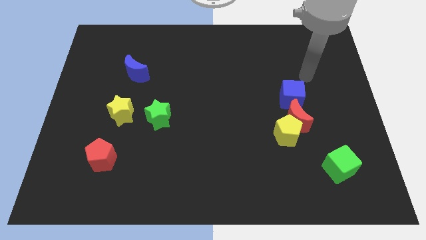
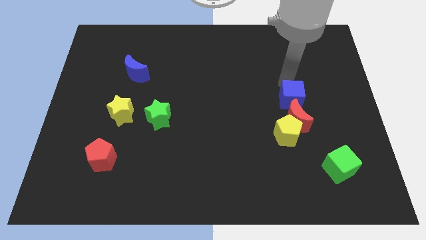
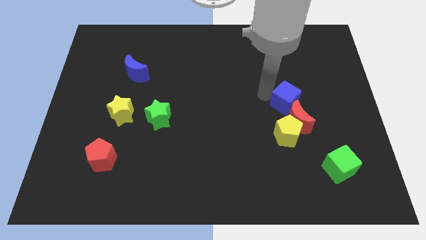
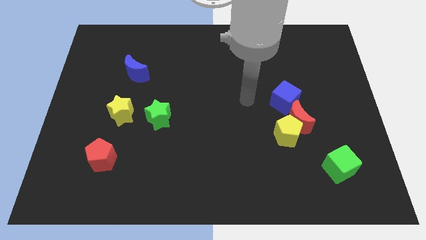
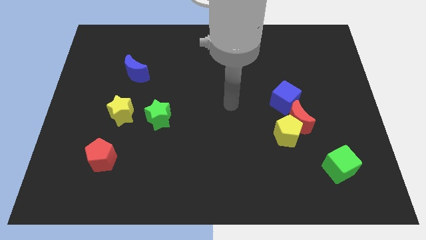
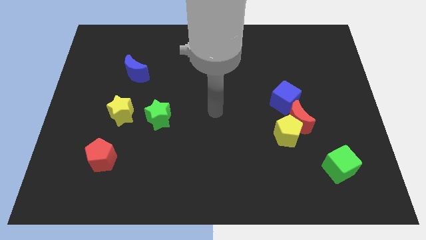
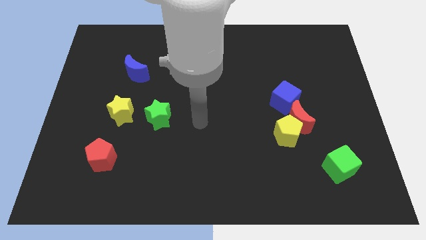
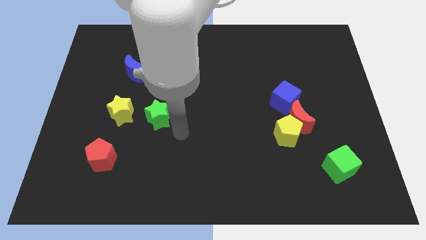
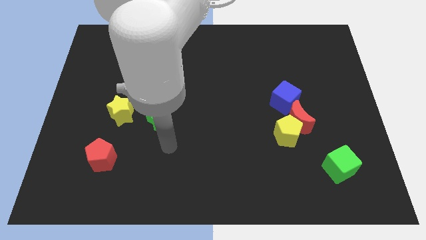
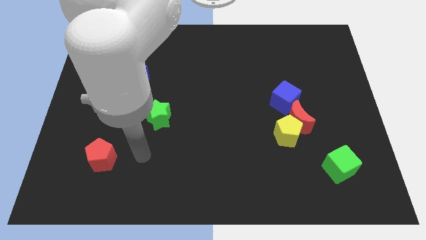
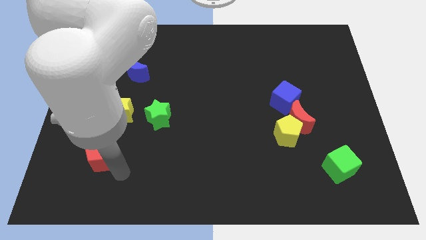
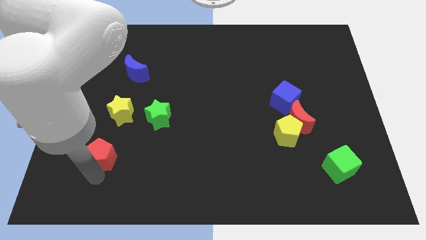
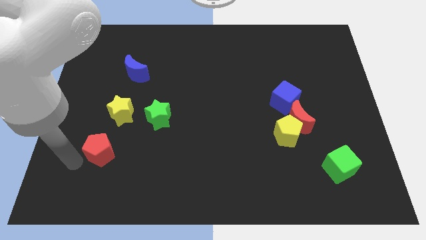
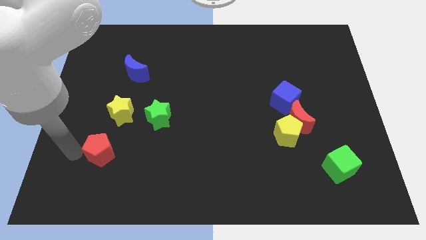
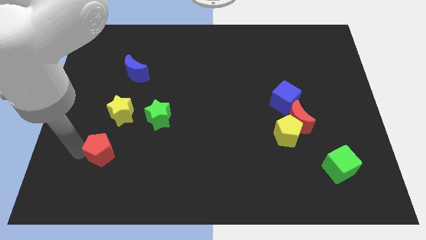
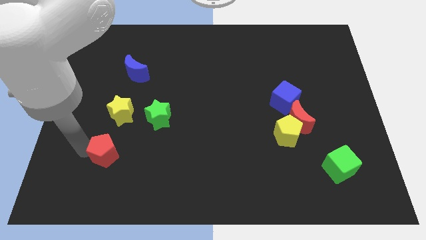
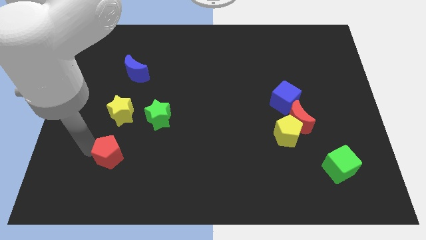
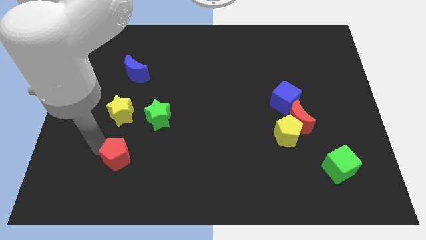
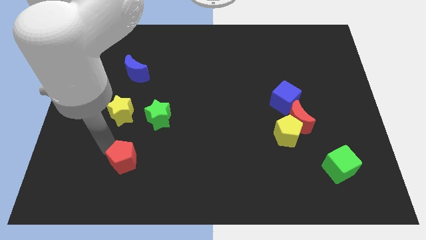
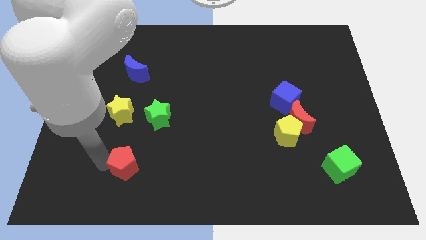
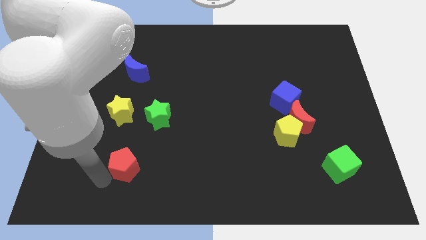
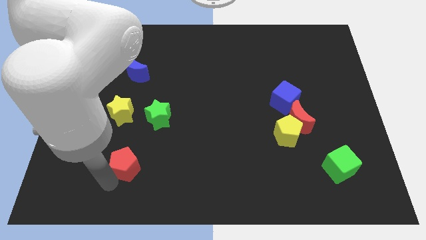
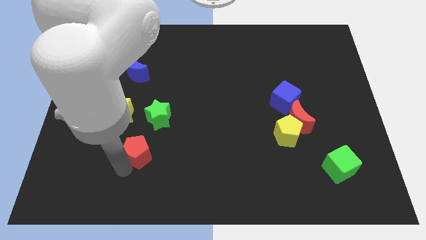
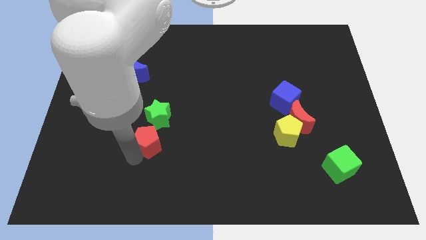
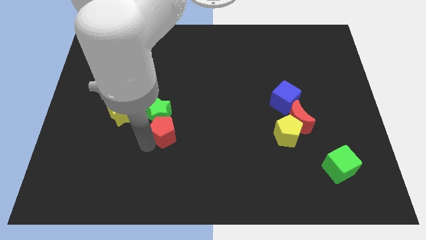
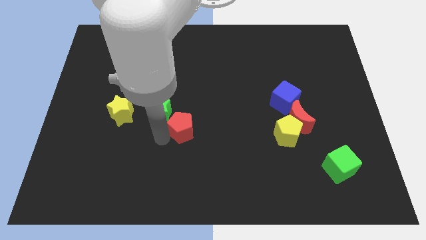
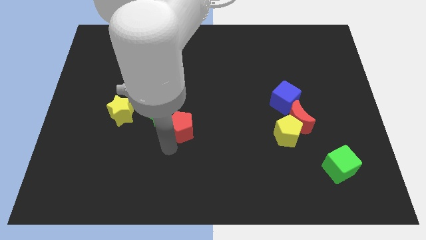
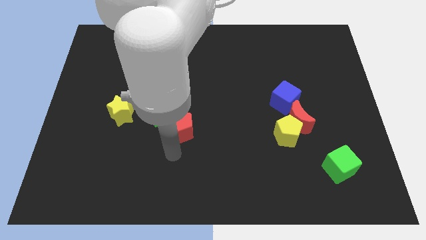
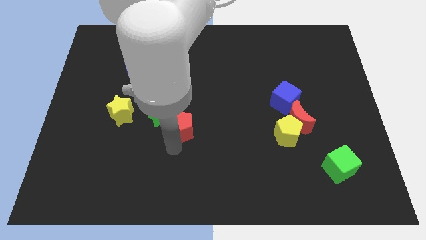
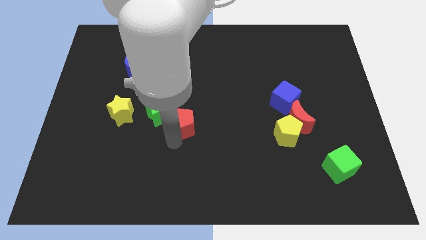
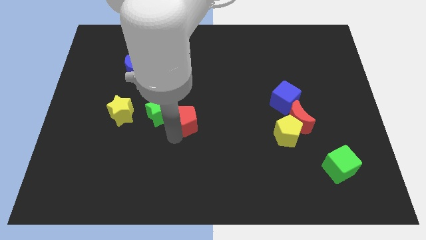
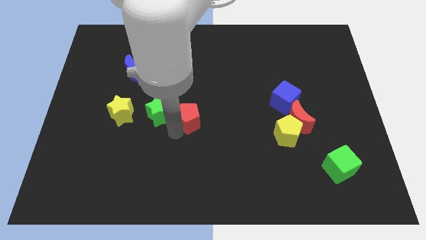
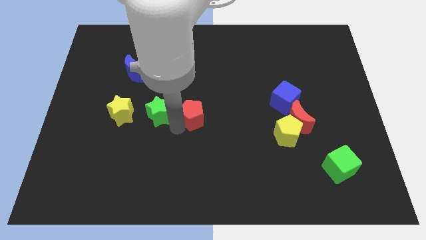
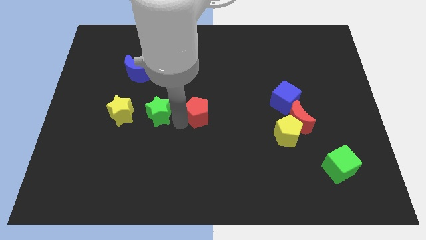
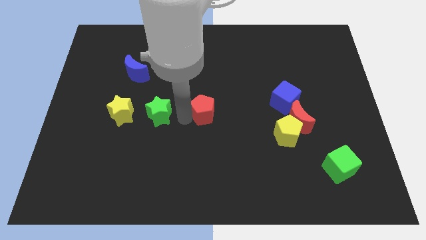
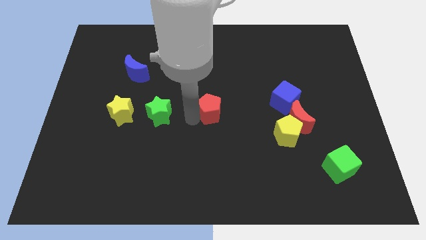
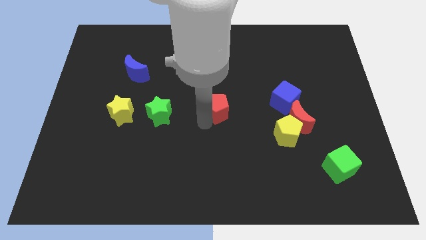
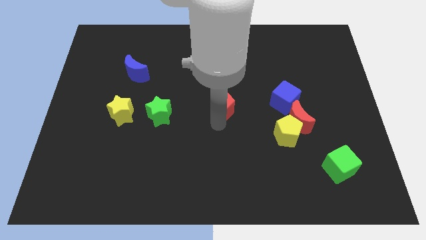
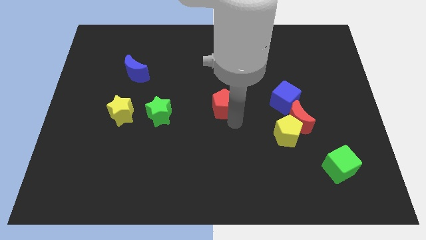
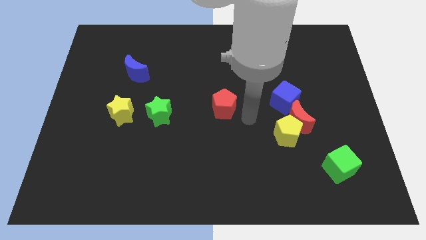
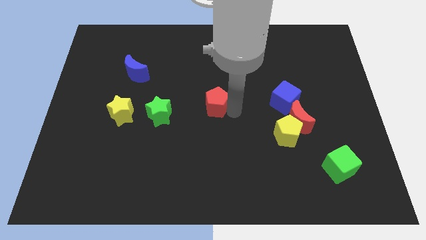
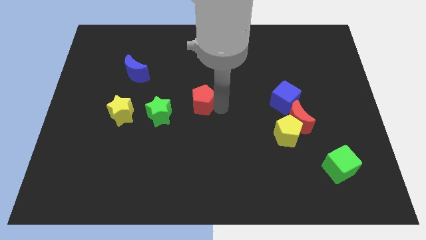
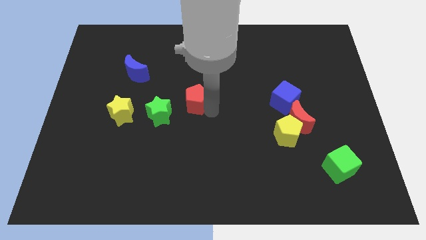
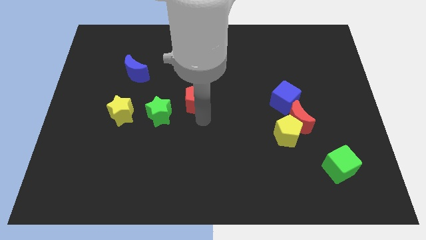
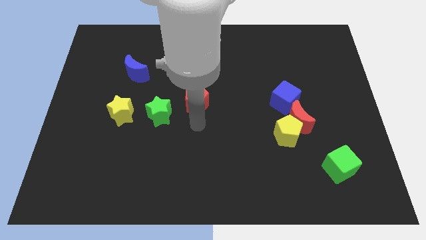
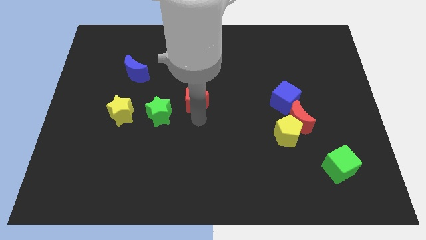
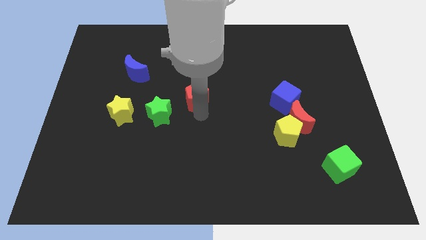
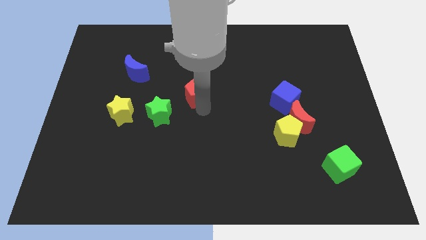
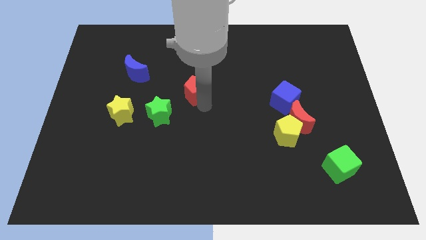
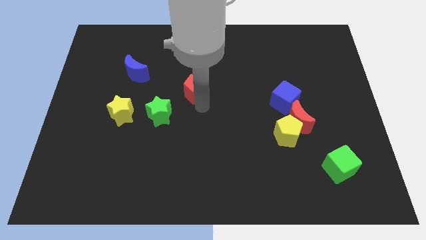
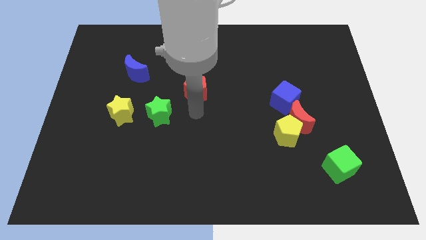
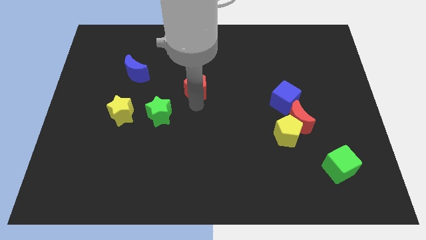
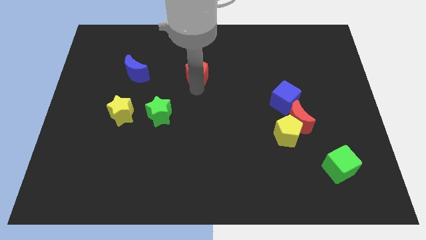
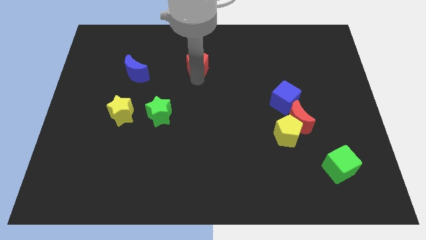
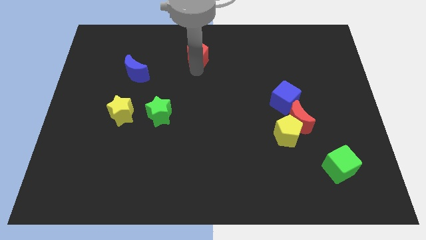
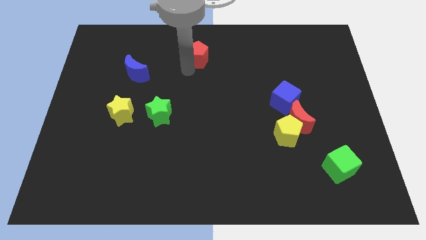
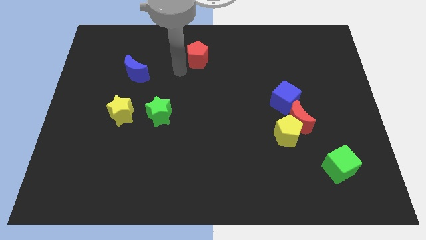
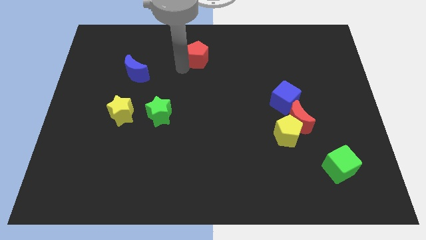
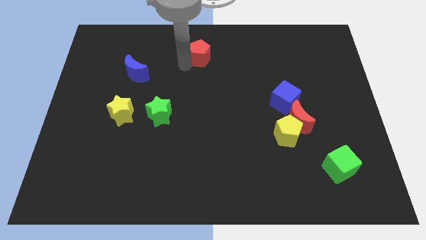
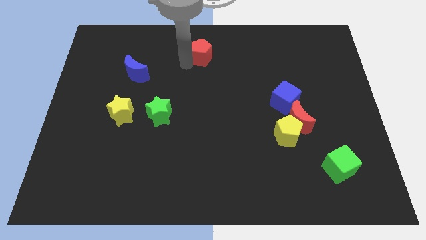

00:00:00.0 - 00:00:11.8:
move the red pentagon to the towards your base

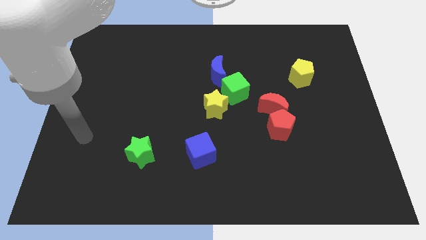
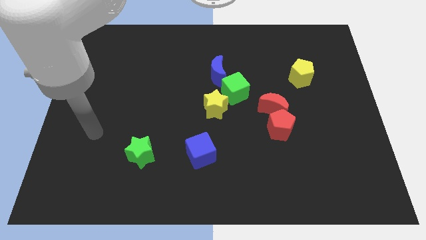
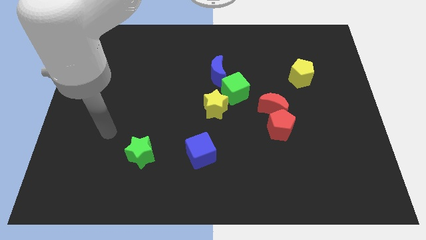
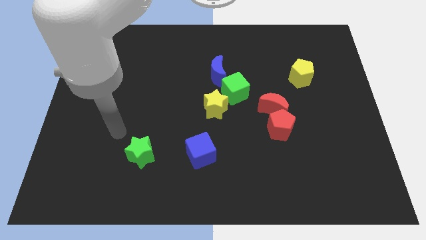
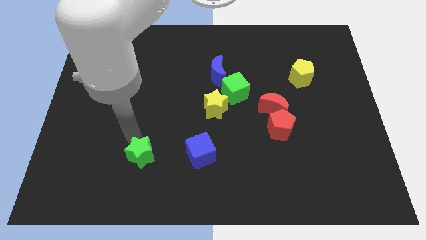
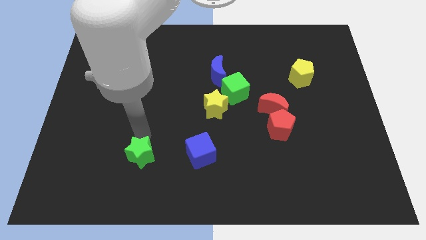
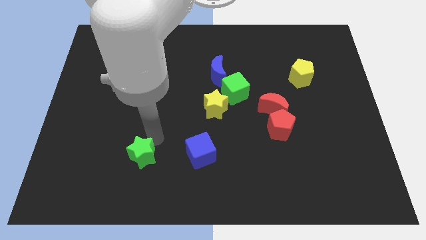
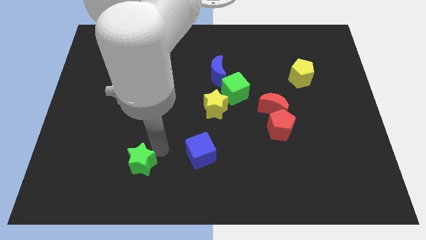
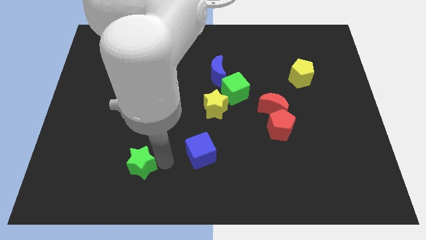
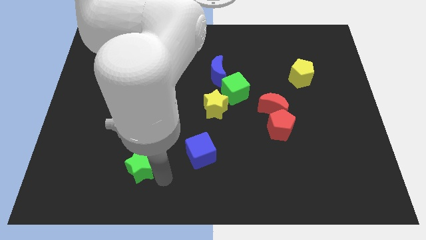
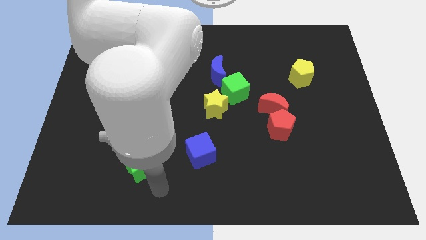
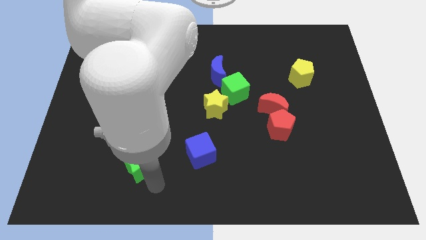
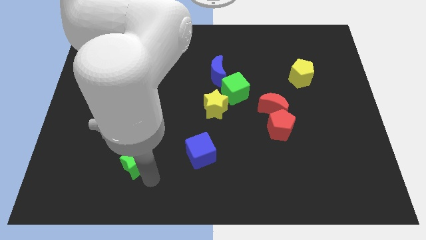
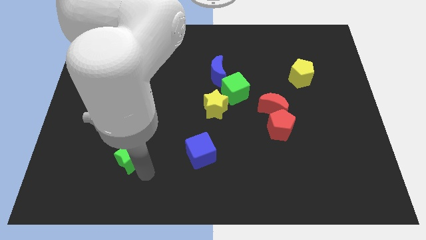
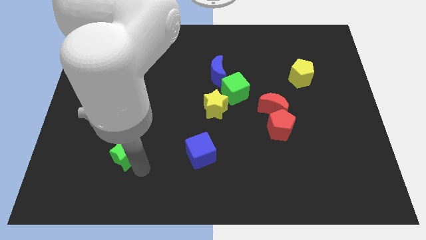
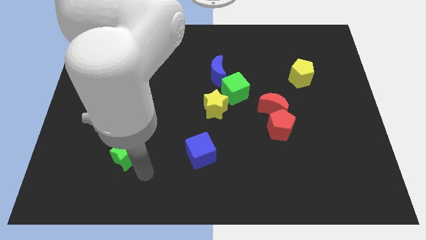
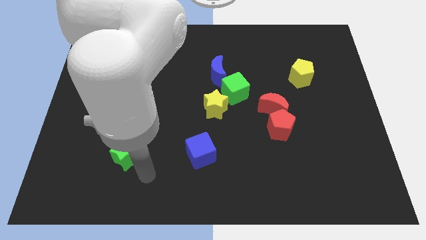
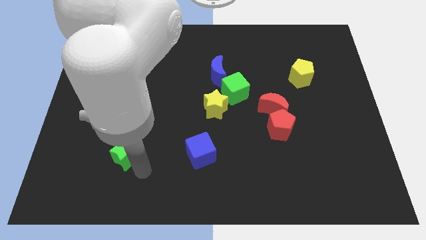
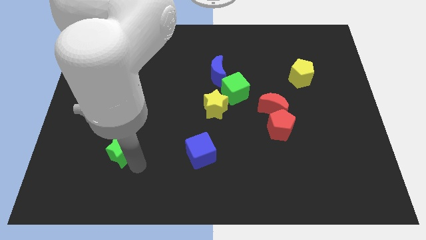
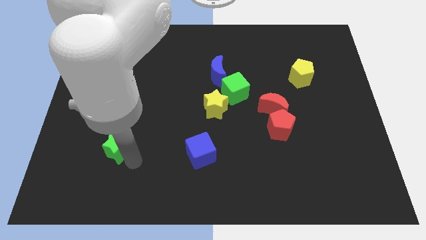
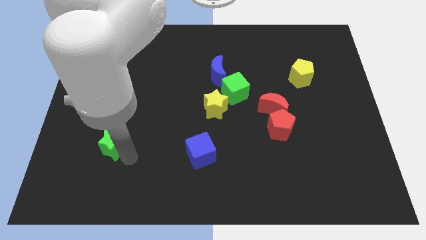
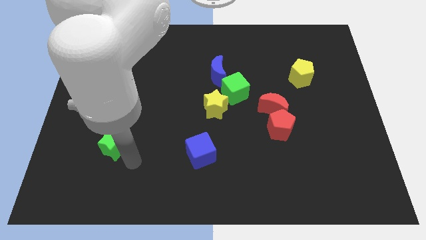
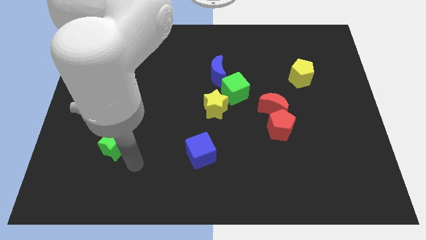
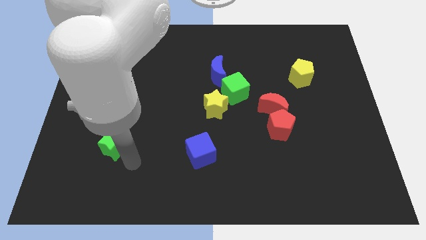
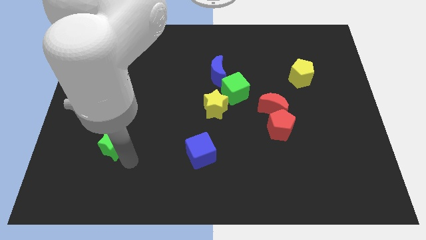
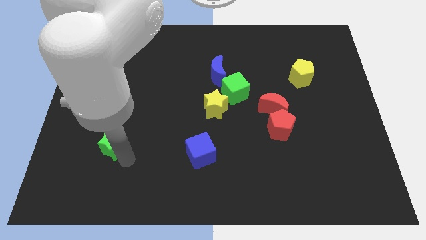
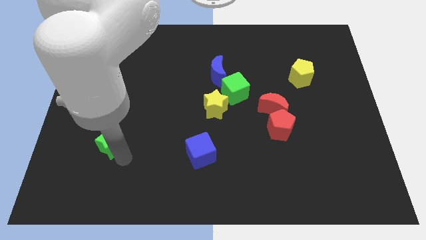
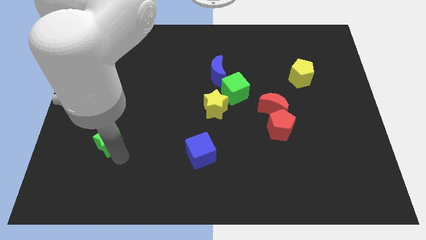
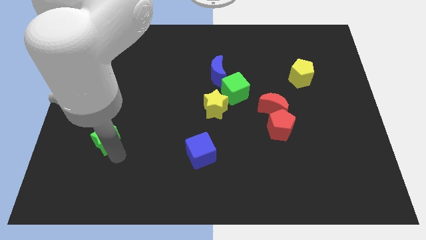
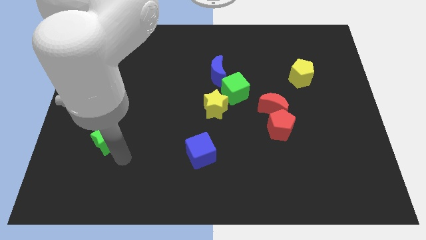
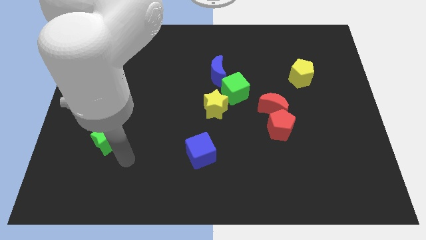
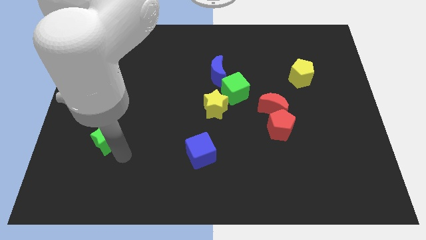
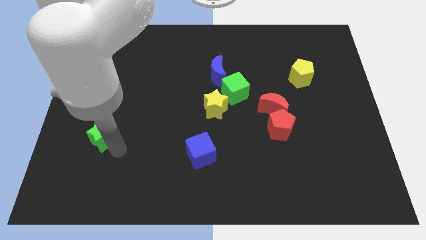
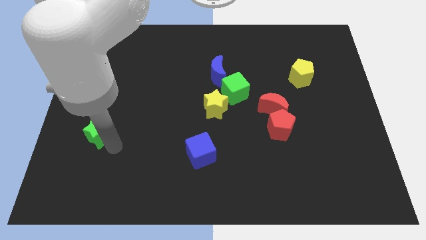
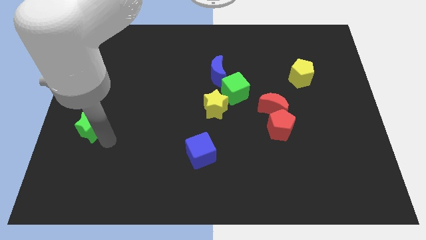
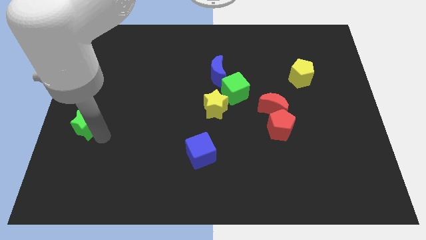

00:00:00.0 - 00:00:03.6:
slide the green star to the left side
